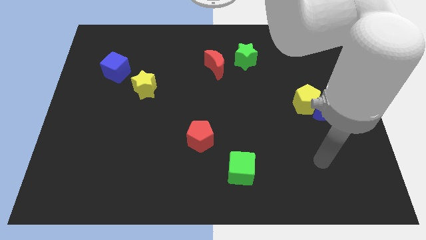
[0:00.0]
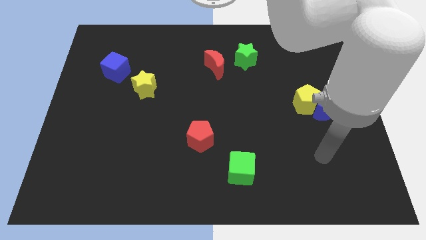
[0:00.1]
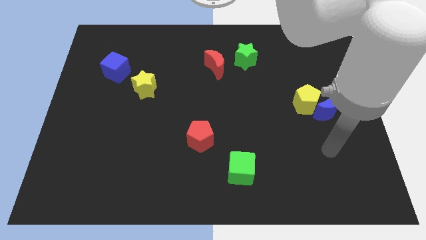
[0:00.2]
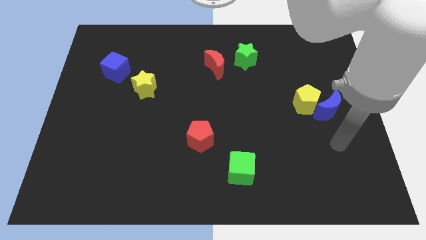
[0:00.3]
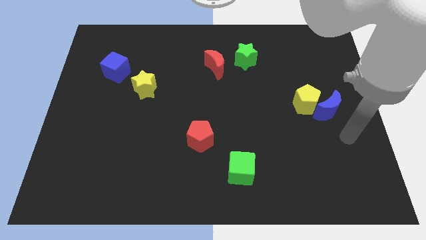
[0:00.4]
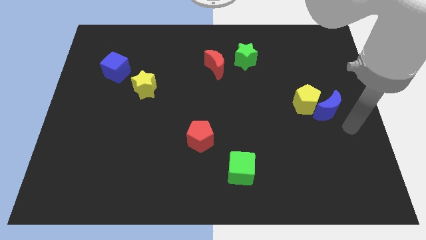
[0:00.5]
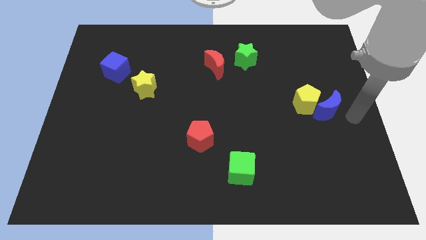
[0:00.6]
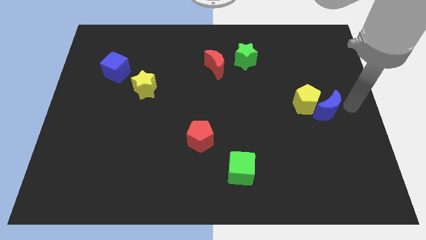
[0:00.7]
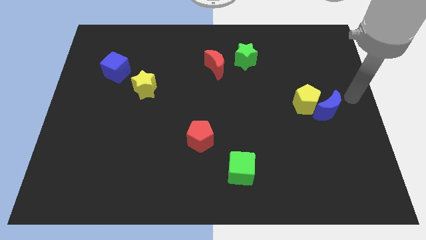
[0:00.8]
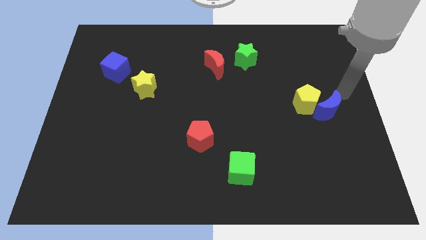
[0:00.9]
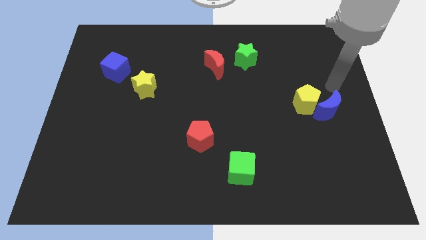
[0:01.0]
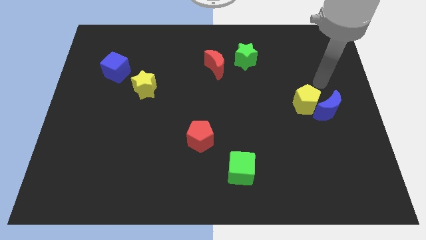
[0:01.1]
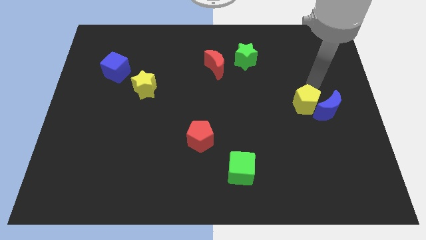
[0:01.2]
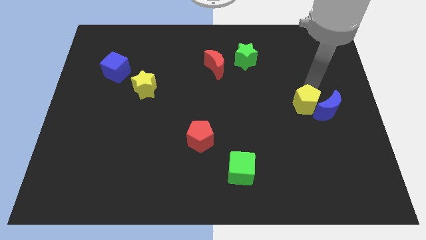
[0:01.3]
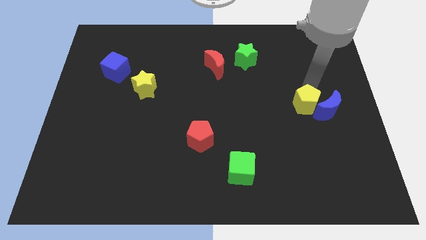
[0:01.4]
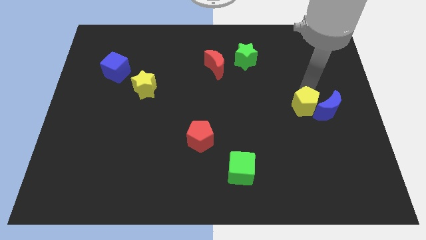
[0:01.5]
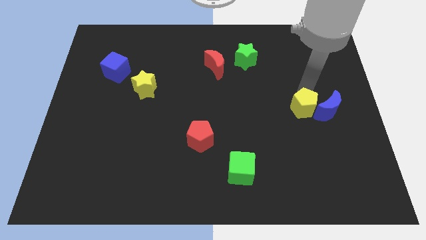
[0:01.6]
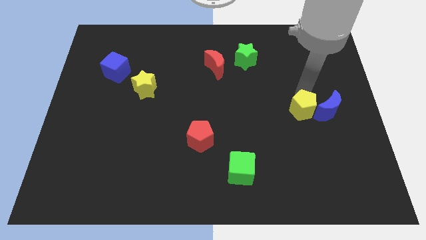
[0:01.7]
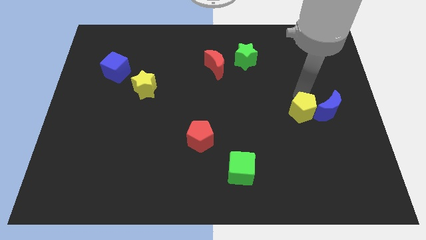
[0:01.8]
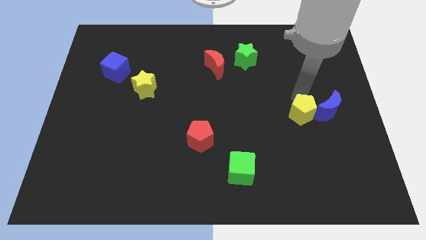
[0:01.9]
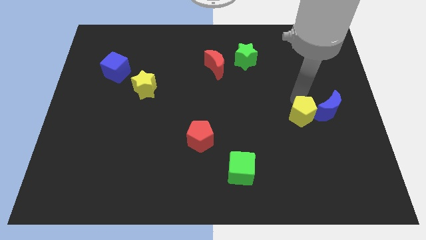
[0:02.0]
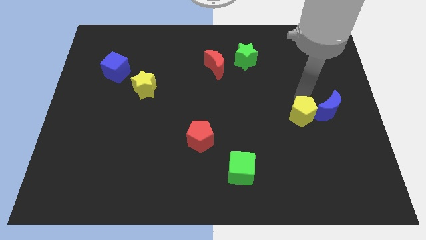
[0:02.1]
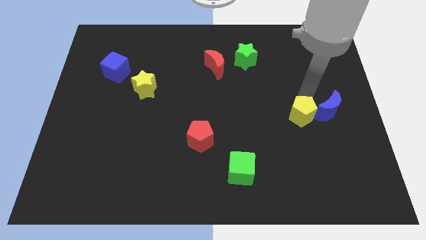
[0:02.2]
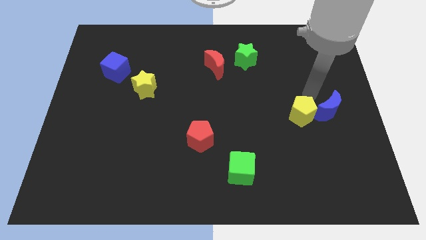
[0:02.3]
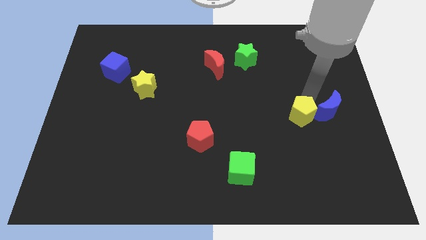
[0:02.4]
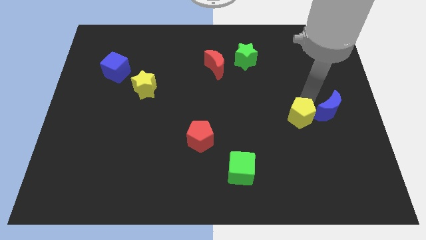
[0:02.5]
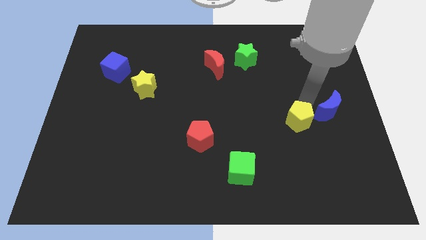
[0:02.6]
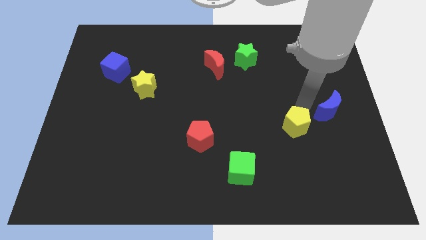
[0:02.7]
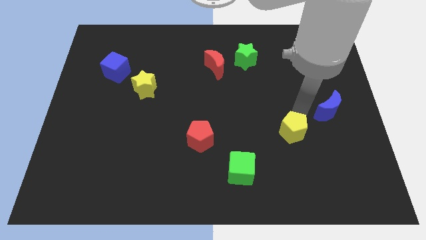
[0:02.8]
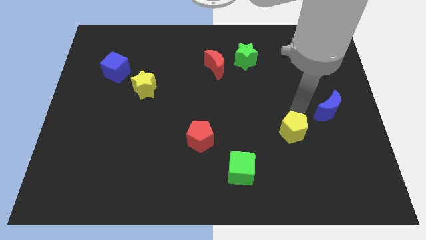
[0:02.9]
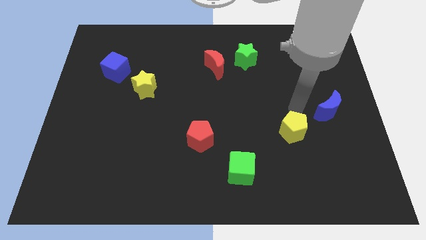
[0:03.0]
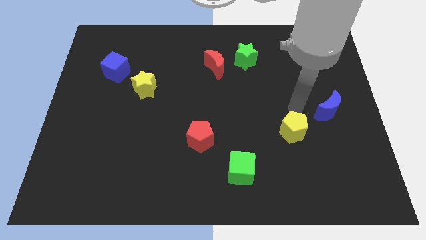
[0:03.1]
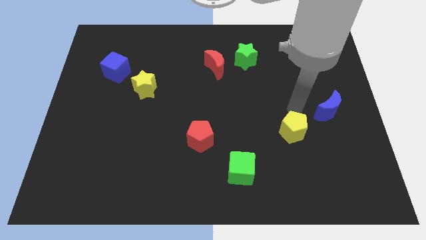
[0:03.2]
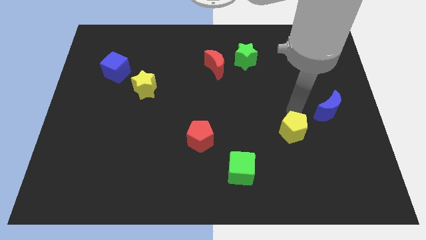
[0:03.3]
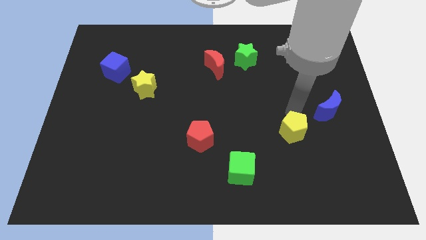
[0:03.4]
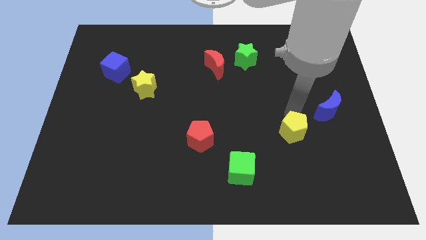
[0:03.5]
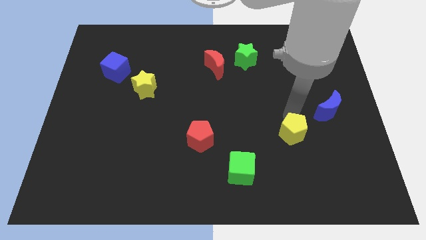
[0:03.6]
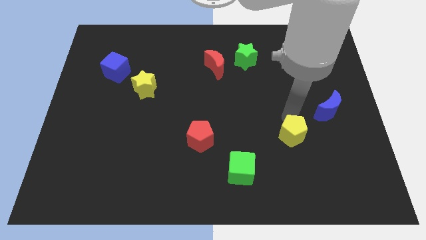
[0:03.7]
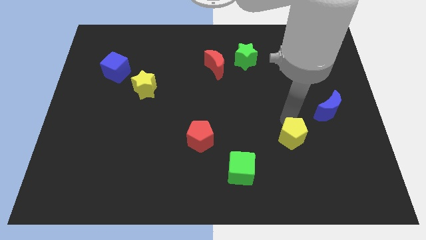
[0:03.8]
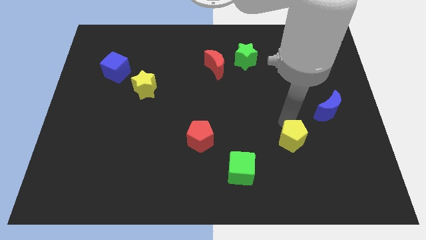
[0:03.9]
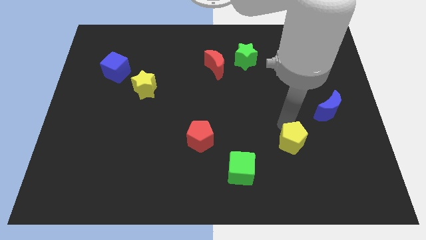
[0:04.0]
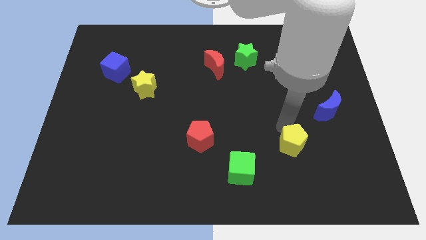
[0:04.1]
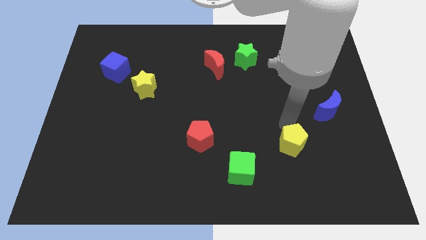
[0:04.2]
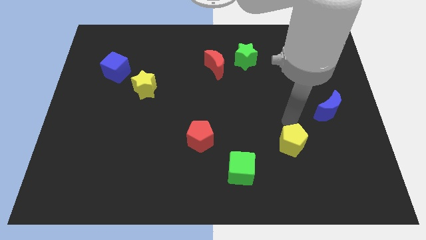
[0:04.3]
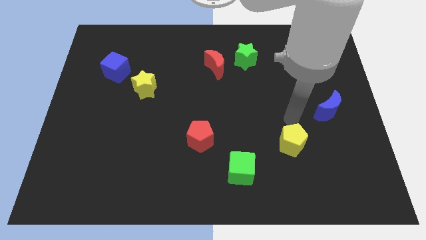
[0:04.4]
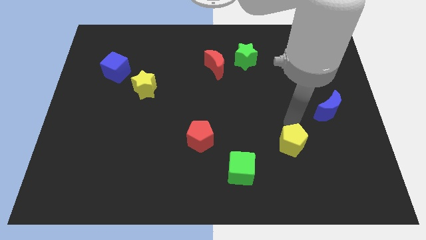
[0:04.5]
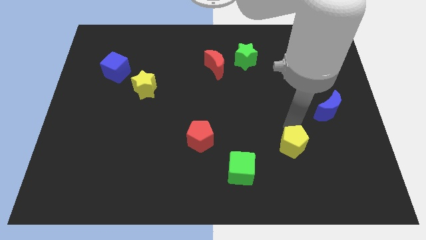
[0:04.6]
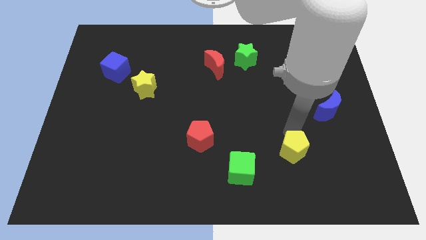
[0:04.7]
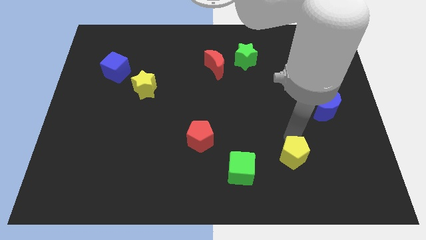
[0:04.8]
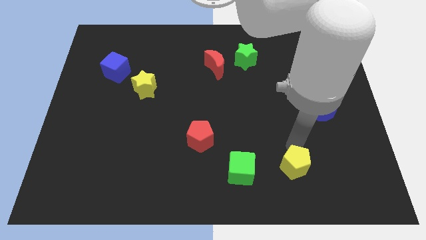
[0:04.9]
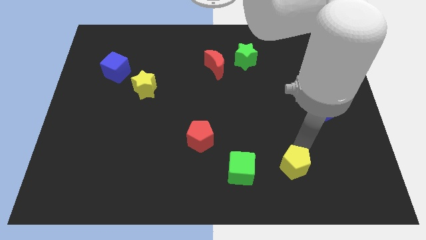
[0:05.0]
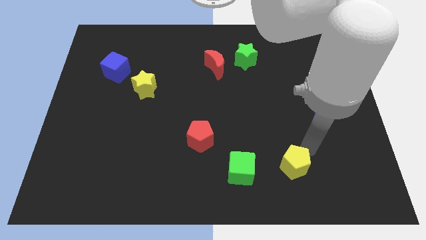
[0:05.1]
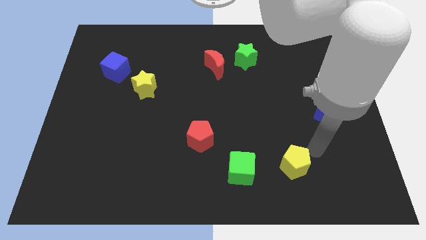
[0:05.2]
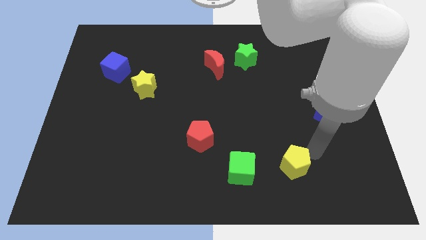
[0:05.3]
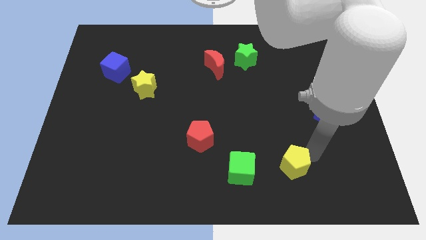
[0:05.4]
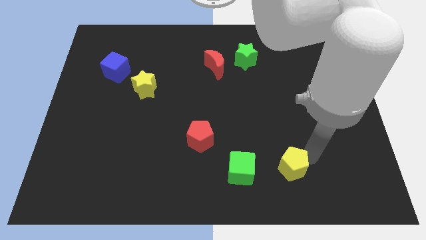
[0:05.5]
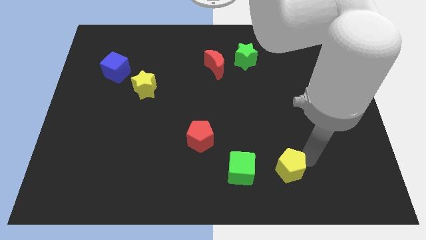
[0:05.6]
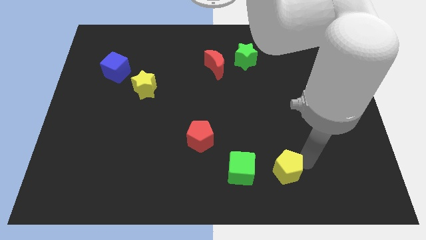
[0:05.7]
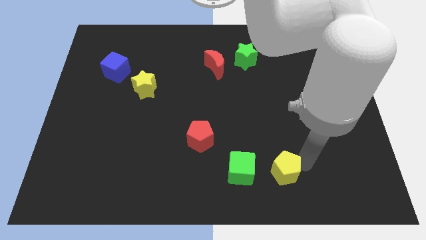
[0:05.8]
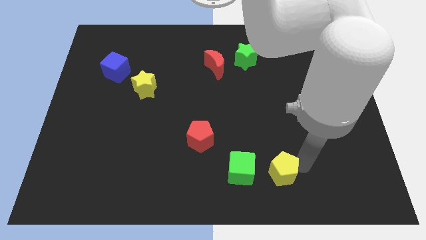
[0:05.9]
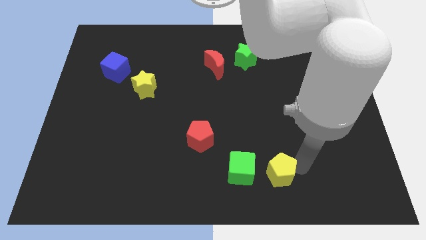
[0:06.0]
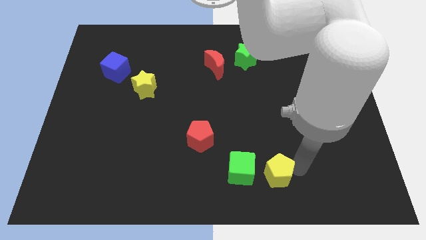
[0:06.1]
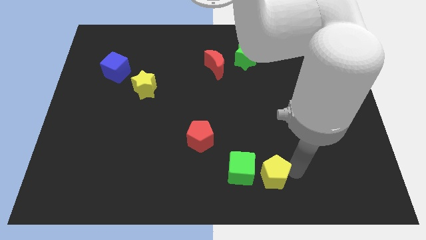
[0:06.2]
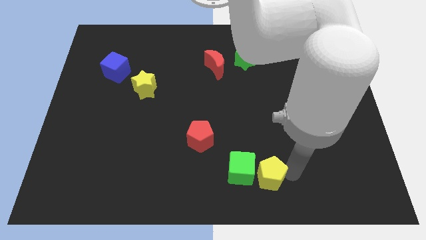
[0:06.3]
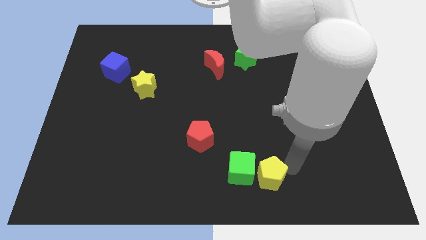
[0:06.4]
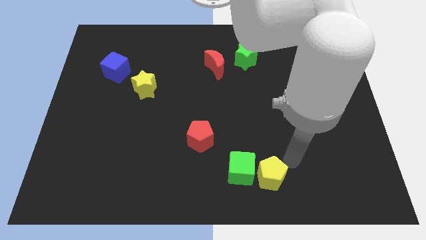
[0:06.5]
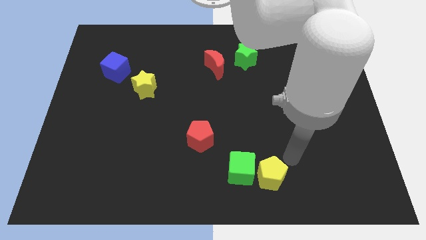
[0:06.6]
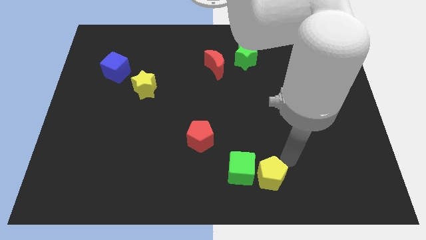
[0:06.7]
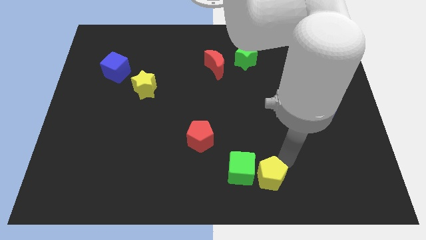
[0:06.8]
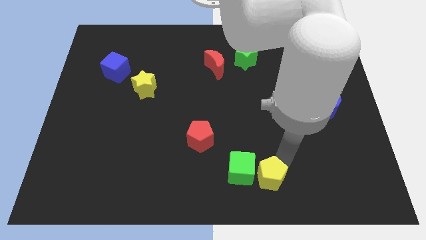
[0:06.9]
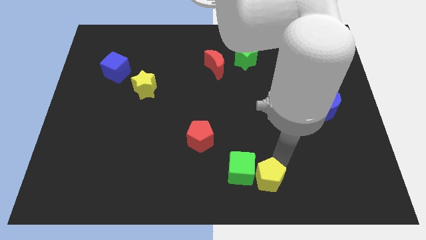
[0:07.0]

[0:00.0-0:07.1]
slide the yellow pentagon to the bottom side
